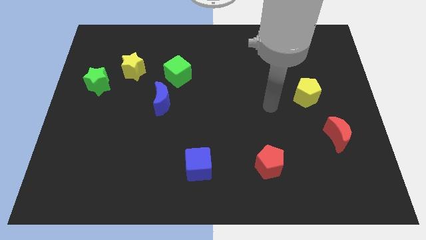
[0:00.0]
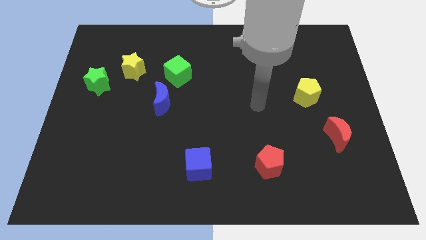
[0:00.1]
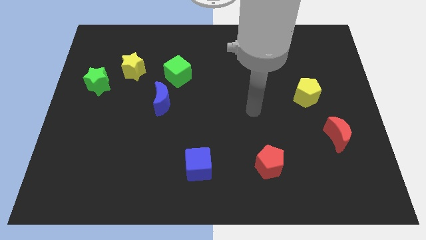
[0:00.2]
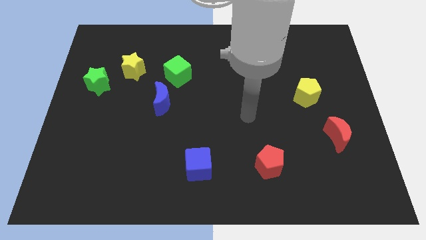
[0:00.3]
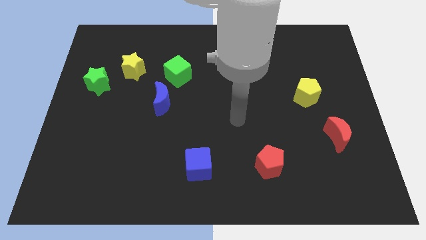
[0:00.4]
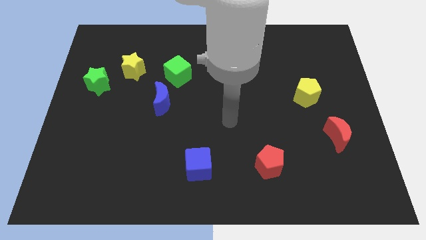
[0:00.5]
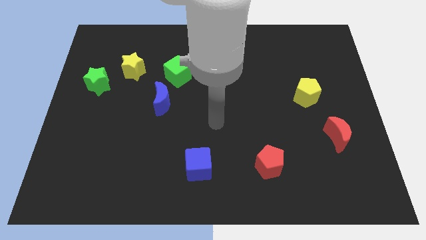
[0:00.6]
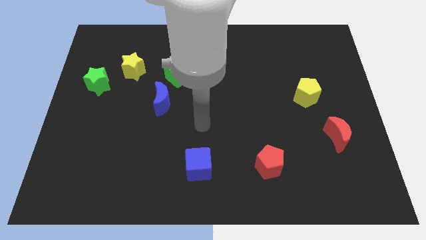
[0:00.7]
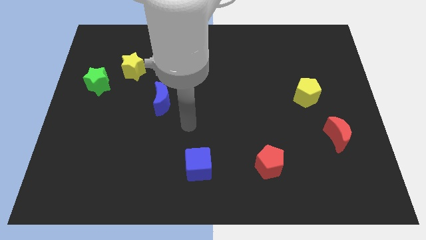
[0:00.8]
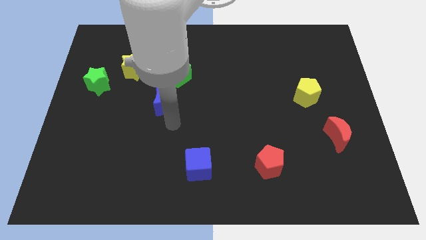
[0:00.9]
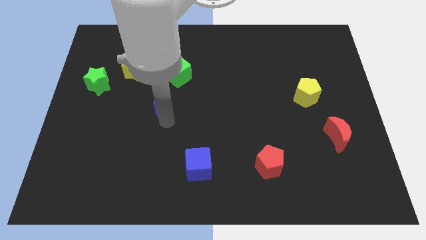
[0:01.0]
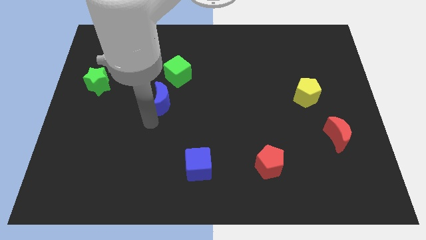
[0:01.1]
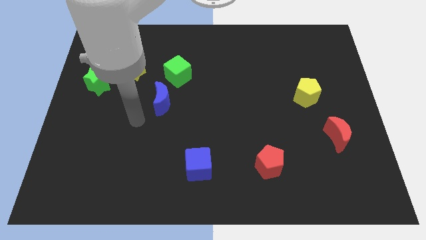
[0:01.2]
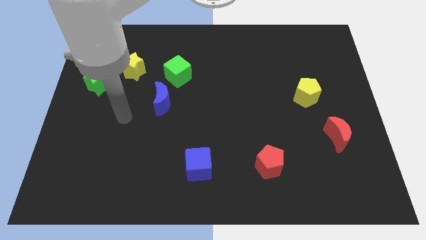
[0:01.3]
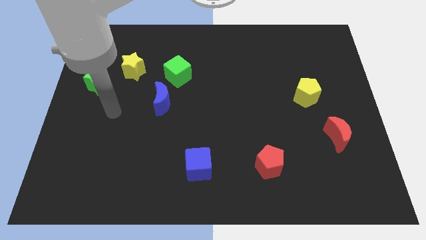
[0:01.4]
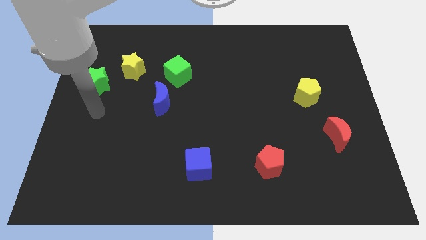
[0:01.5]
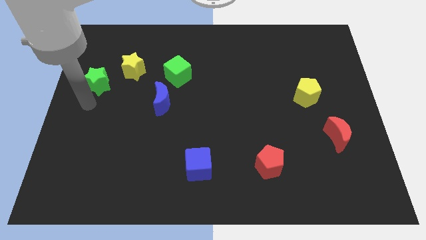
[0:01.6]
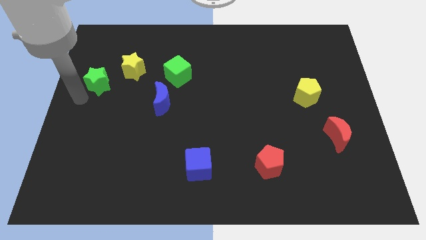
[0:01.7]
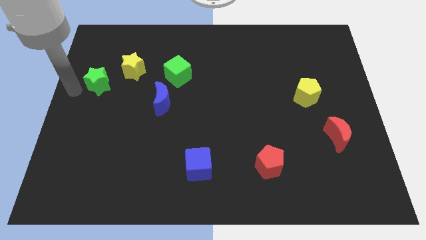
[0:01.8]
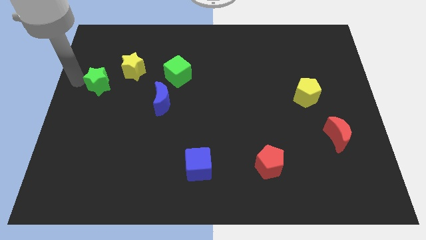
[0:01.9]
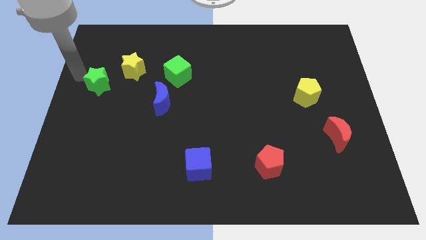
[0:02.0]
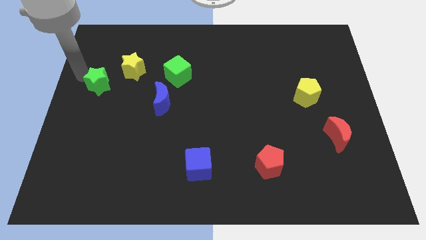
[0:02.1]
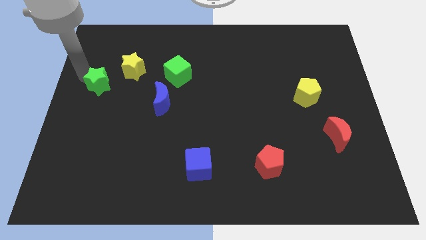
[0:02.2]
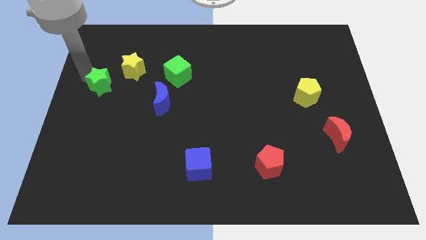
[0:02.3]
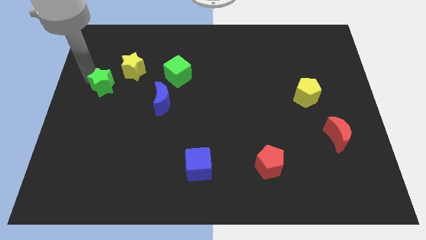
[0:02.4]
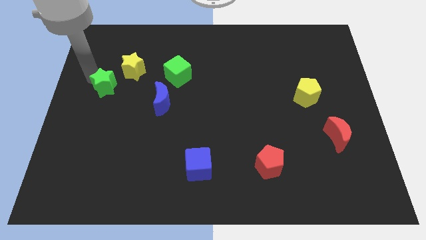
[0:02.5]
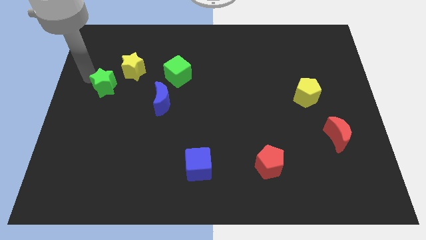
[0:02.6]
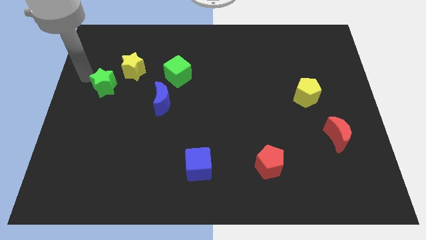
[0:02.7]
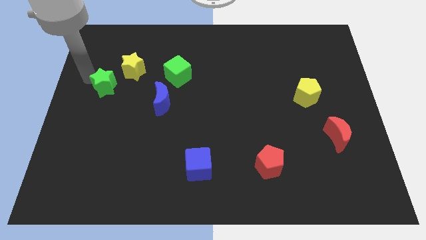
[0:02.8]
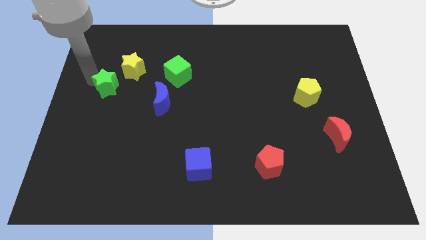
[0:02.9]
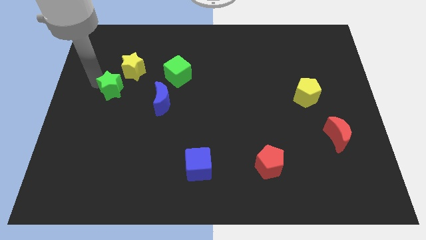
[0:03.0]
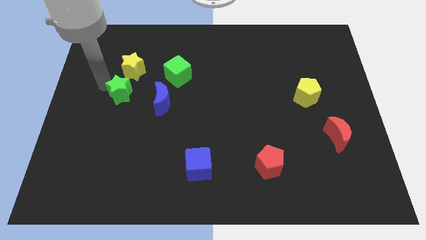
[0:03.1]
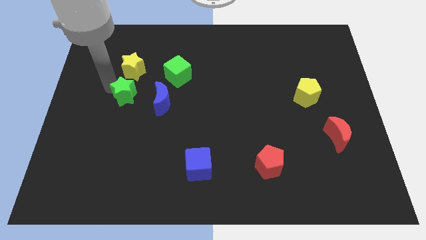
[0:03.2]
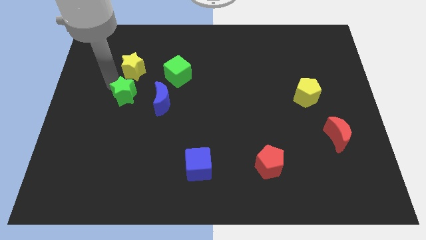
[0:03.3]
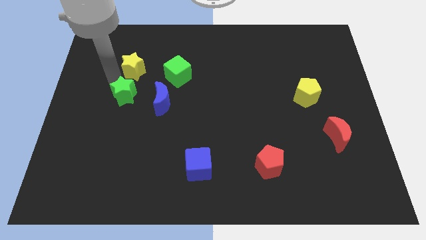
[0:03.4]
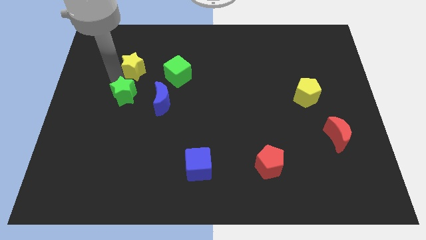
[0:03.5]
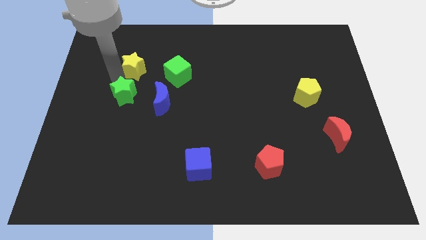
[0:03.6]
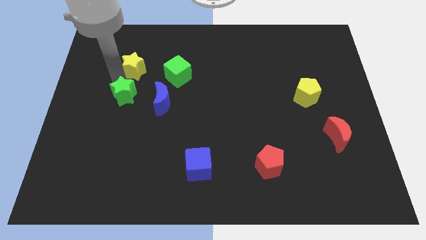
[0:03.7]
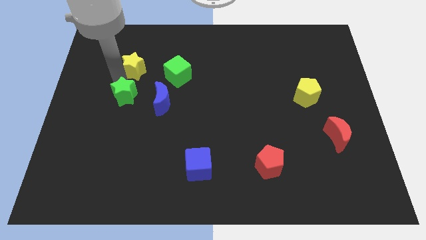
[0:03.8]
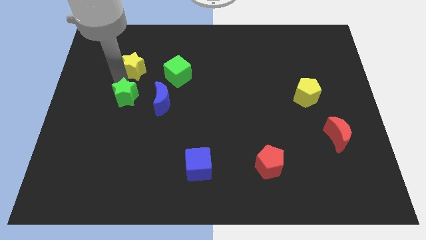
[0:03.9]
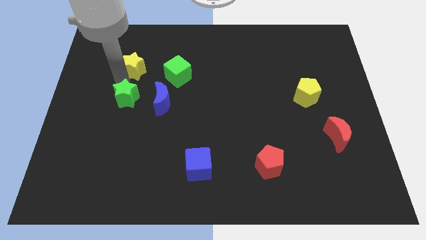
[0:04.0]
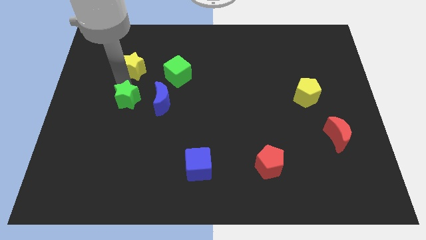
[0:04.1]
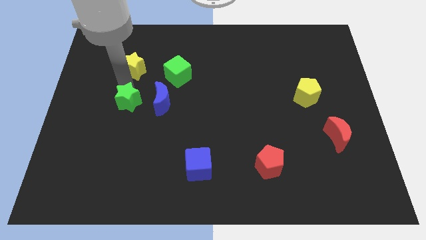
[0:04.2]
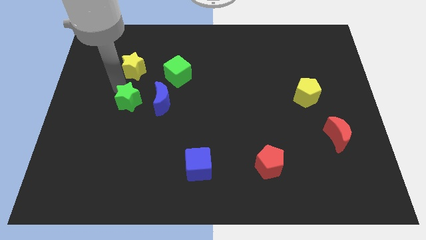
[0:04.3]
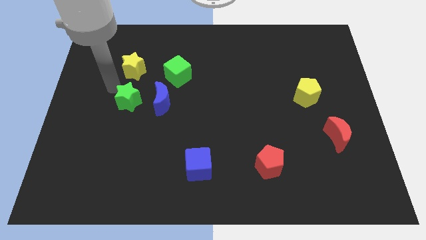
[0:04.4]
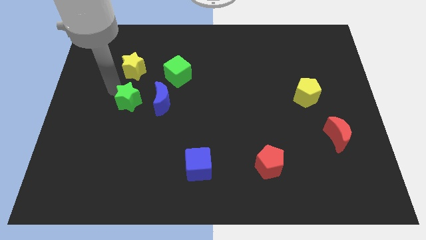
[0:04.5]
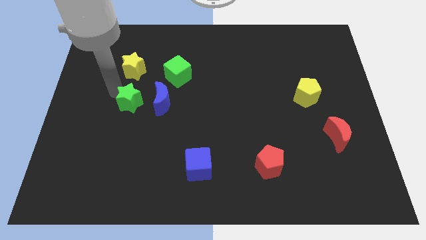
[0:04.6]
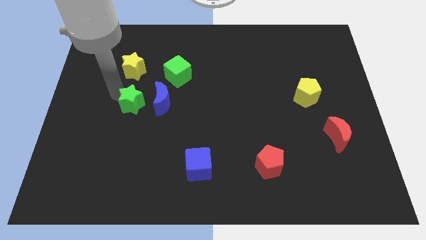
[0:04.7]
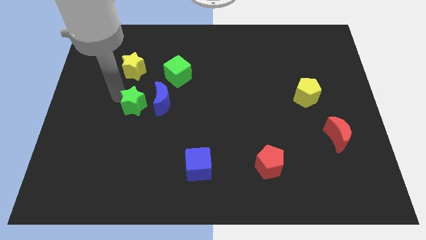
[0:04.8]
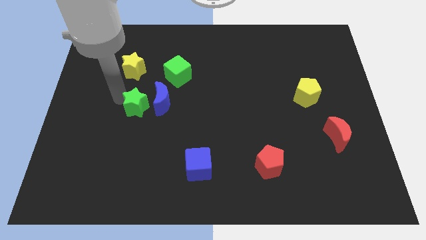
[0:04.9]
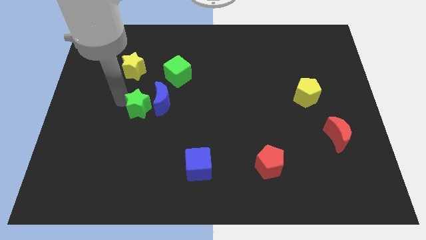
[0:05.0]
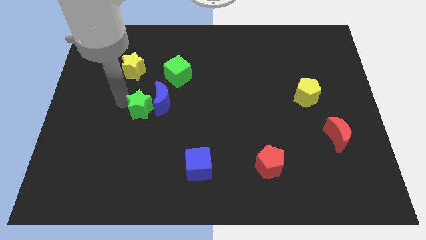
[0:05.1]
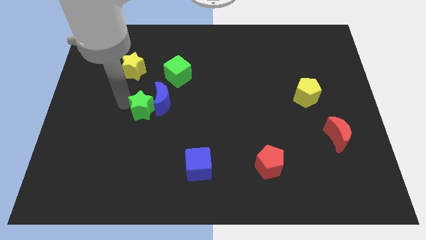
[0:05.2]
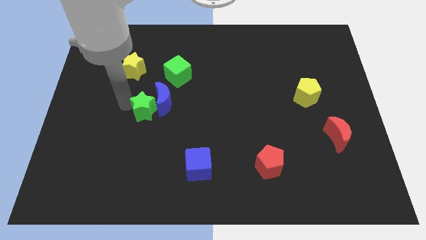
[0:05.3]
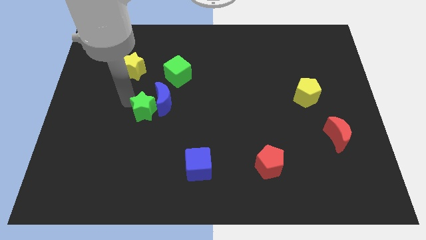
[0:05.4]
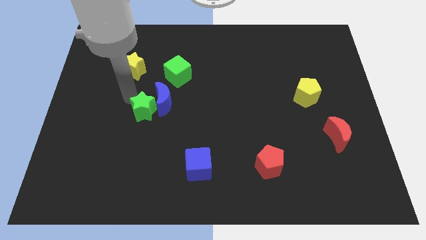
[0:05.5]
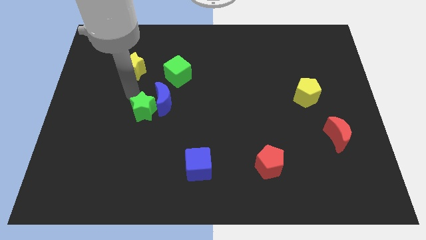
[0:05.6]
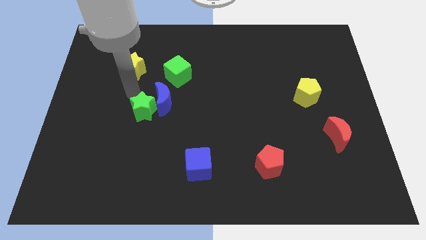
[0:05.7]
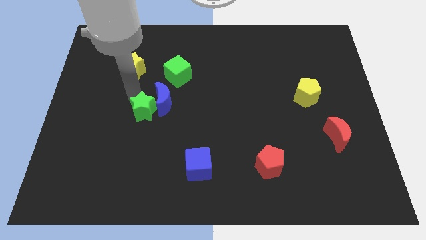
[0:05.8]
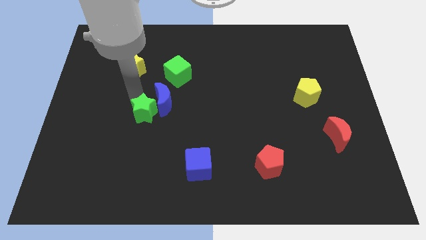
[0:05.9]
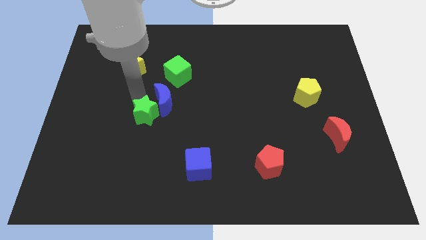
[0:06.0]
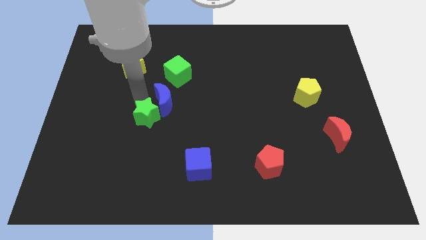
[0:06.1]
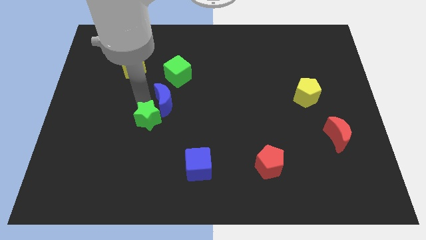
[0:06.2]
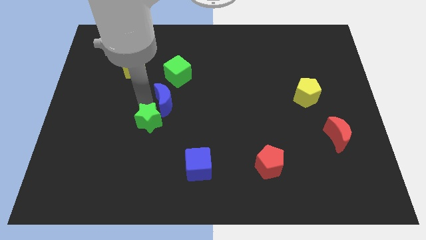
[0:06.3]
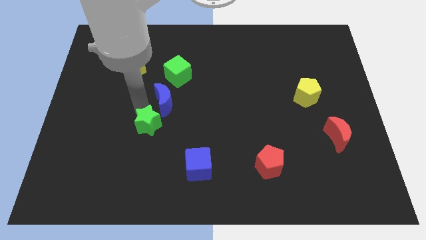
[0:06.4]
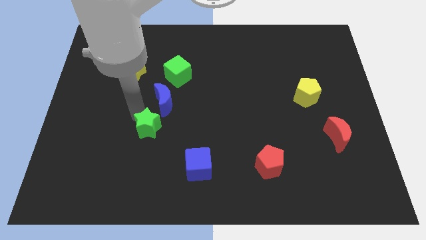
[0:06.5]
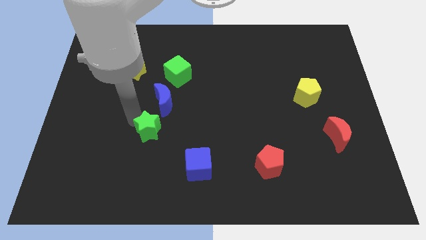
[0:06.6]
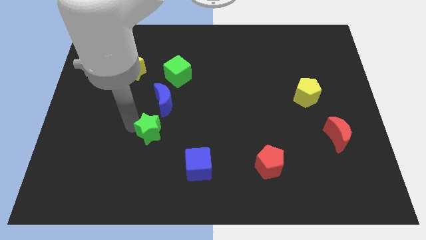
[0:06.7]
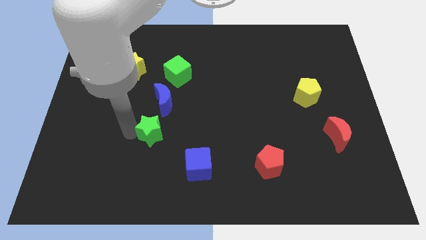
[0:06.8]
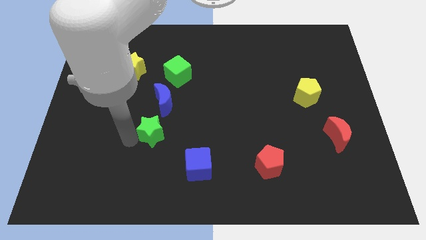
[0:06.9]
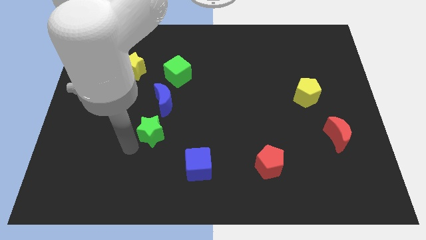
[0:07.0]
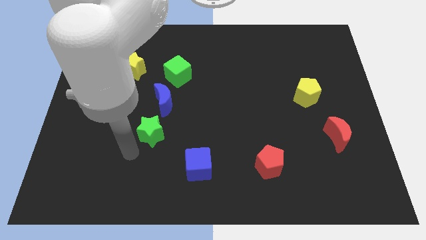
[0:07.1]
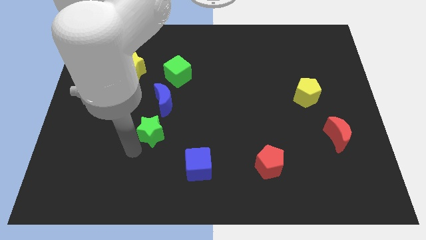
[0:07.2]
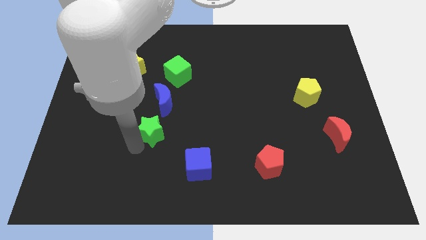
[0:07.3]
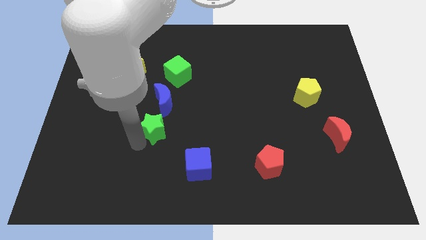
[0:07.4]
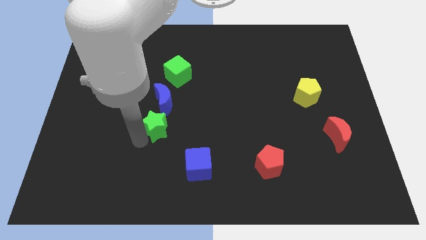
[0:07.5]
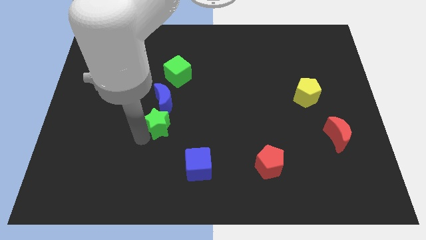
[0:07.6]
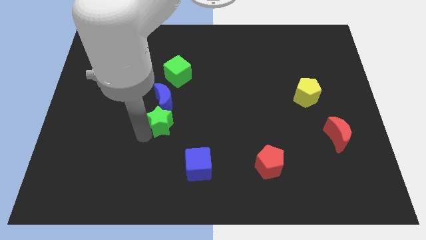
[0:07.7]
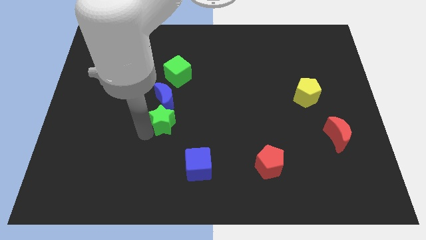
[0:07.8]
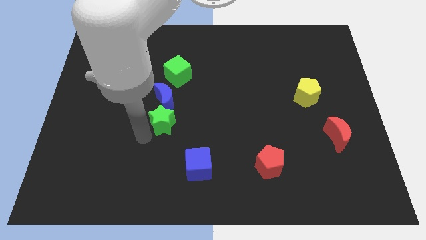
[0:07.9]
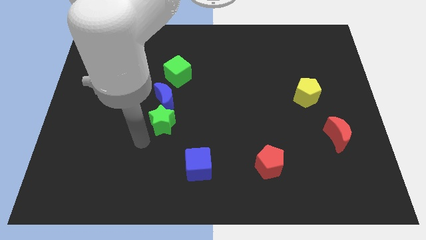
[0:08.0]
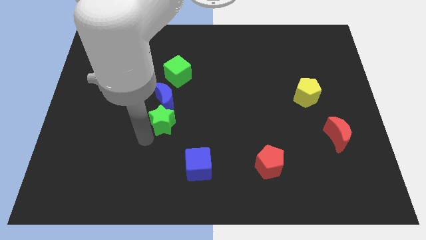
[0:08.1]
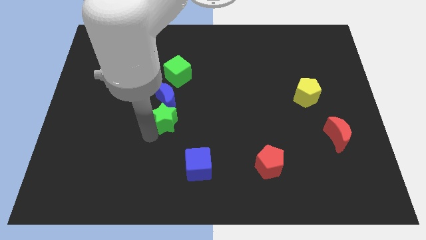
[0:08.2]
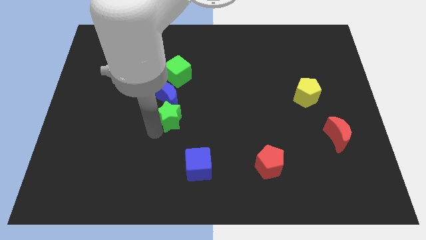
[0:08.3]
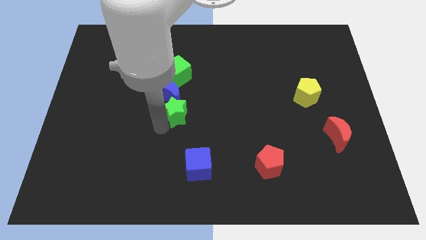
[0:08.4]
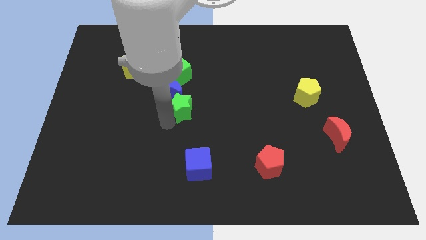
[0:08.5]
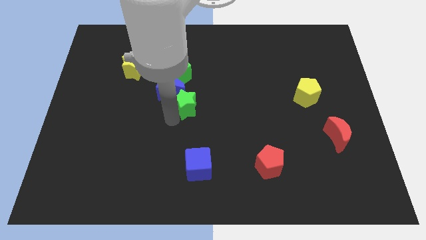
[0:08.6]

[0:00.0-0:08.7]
move the green star right
